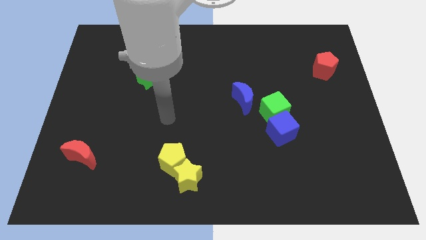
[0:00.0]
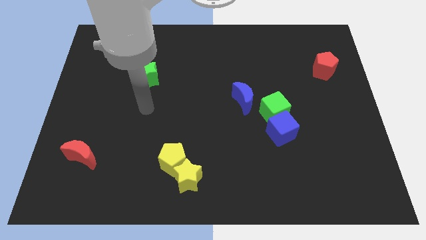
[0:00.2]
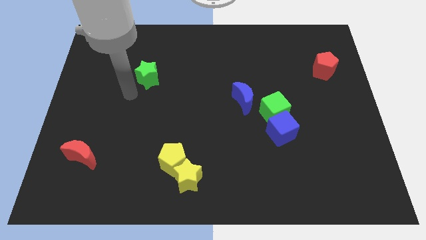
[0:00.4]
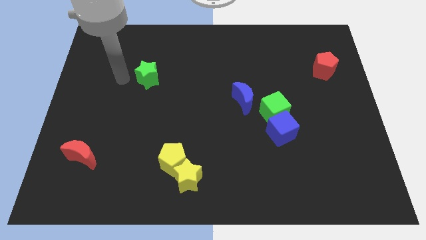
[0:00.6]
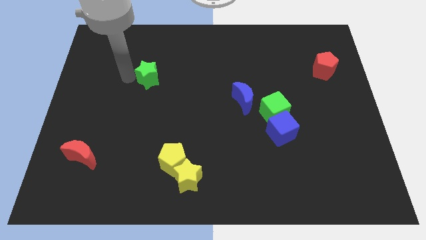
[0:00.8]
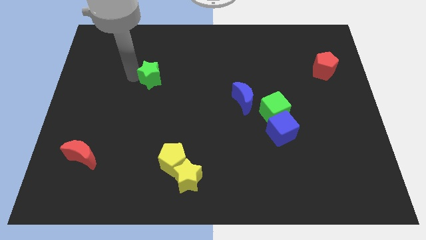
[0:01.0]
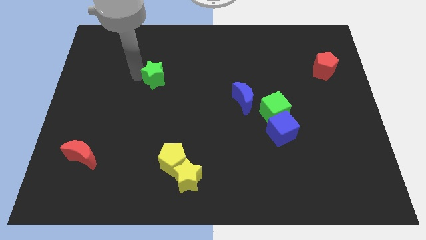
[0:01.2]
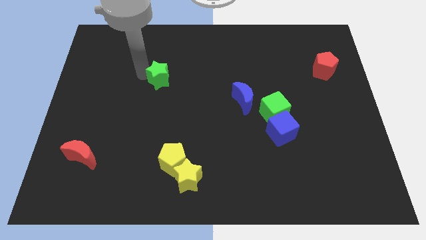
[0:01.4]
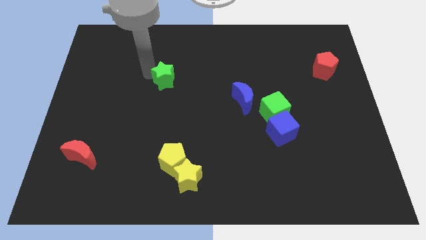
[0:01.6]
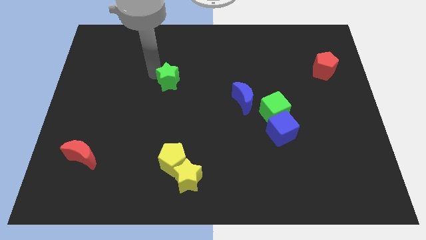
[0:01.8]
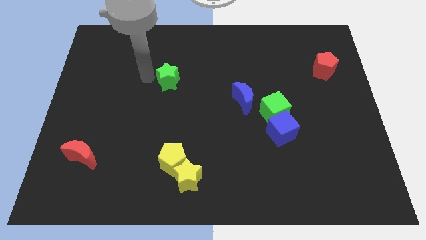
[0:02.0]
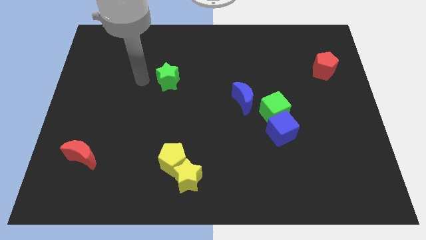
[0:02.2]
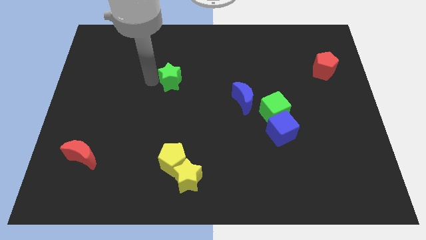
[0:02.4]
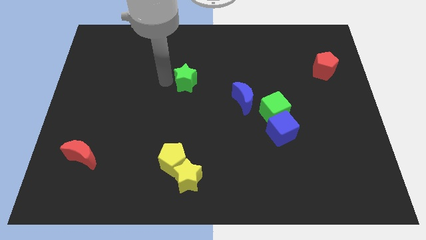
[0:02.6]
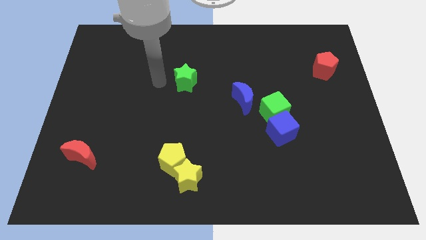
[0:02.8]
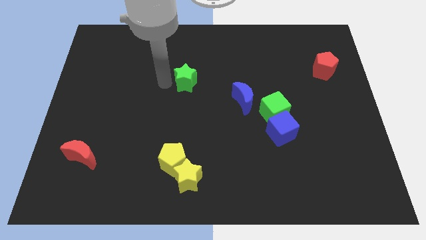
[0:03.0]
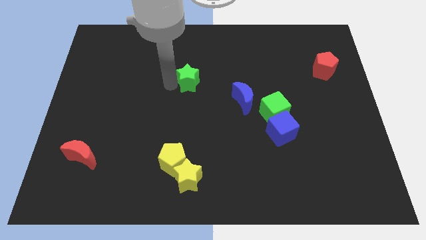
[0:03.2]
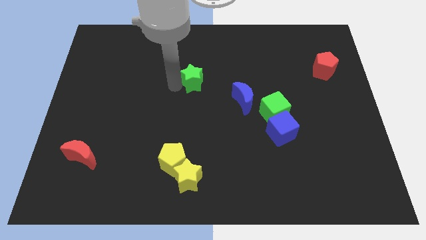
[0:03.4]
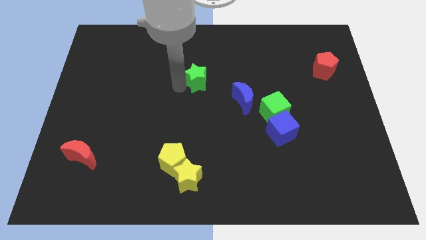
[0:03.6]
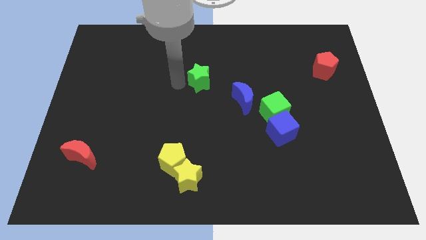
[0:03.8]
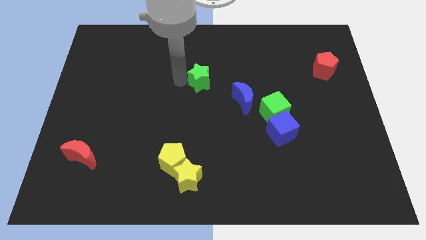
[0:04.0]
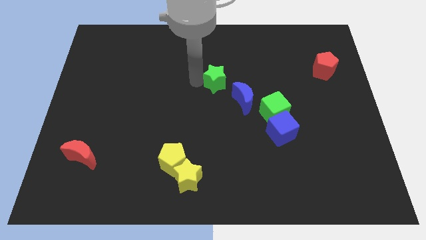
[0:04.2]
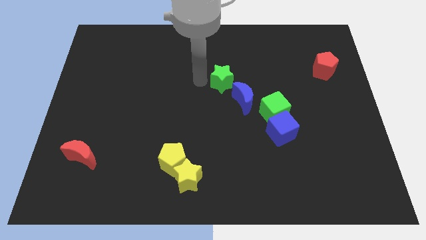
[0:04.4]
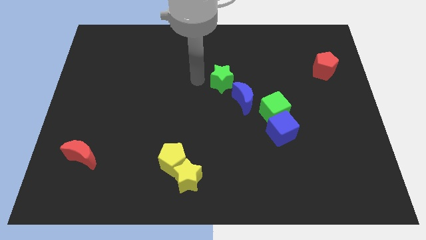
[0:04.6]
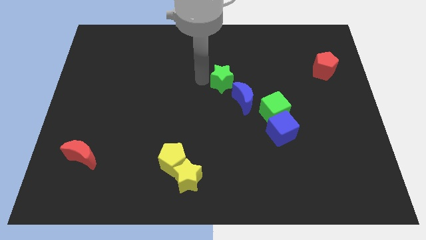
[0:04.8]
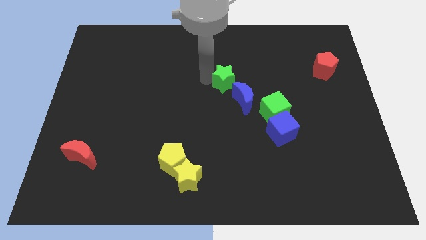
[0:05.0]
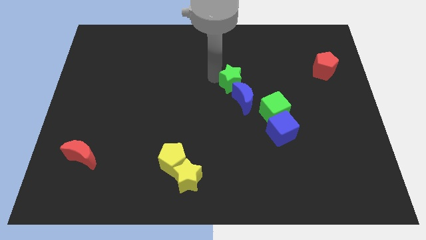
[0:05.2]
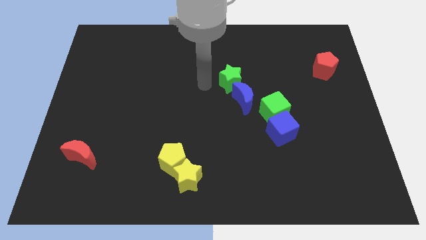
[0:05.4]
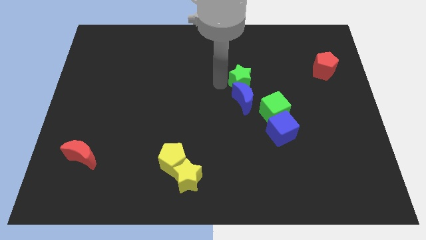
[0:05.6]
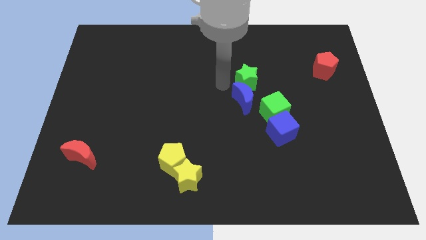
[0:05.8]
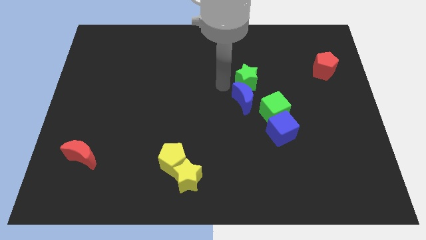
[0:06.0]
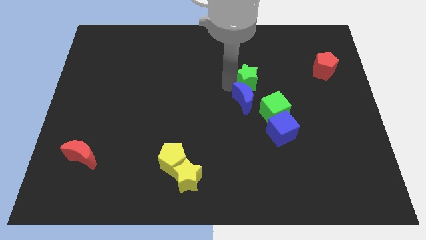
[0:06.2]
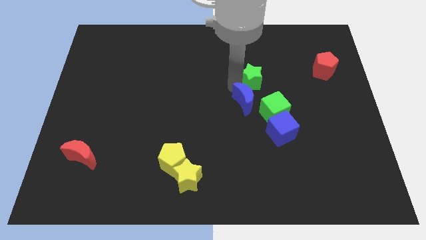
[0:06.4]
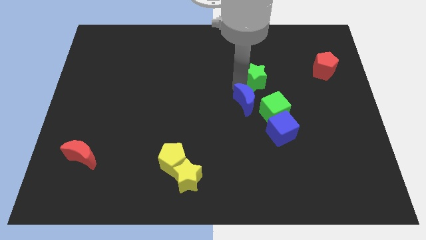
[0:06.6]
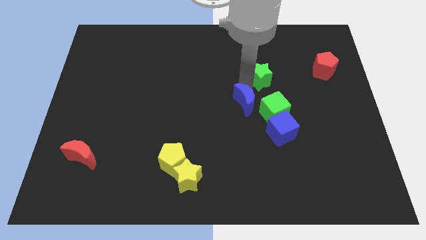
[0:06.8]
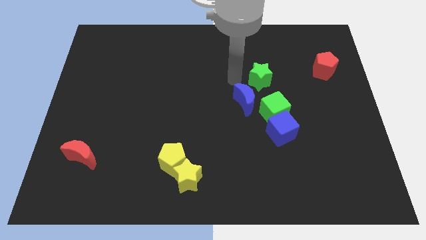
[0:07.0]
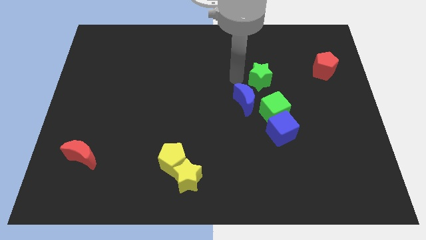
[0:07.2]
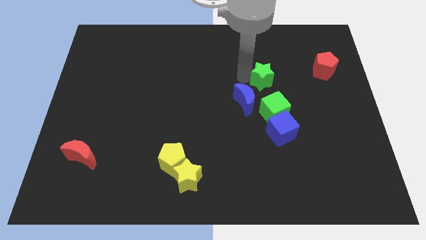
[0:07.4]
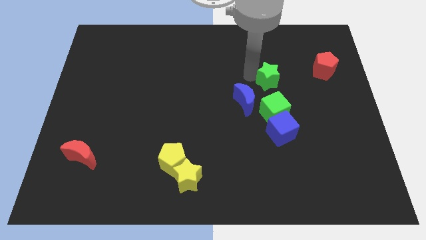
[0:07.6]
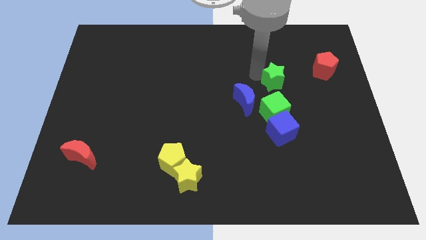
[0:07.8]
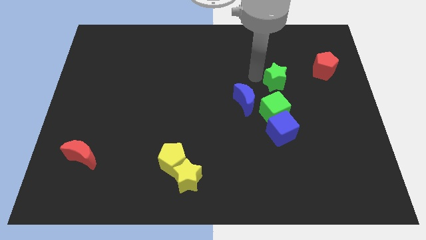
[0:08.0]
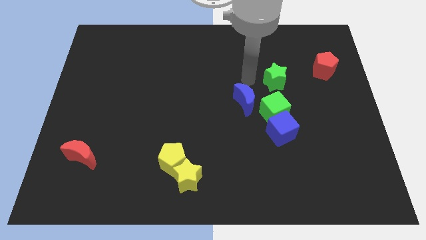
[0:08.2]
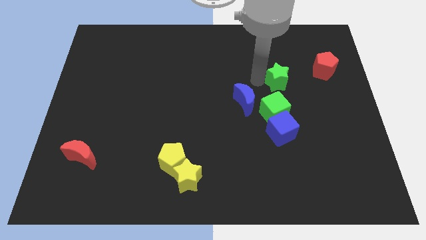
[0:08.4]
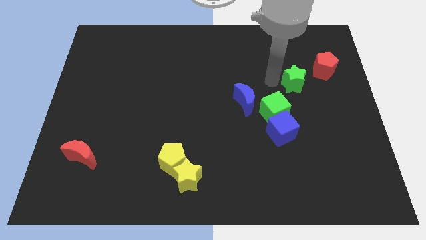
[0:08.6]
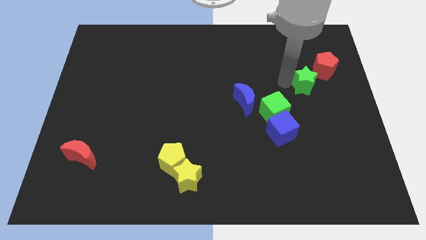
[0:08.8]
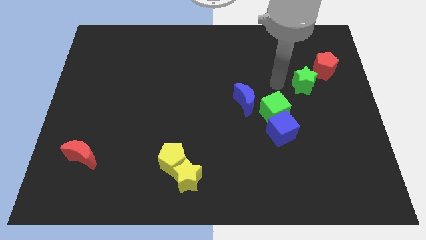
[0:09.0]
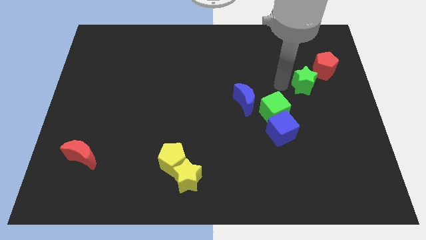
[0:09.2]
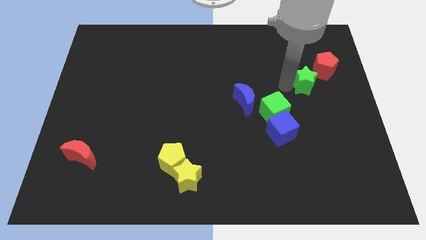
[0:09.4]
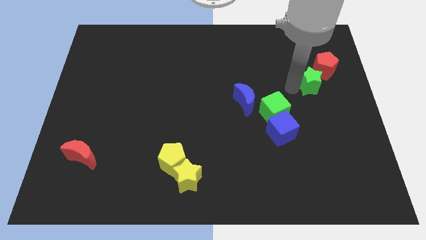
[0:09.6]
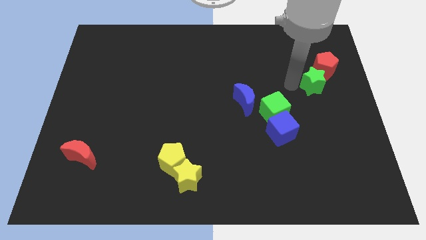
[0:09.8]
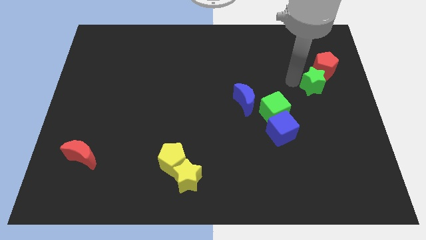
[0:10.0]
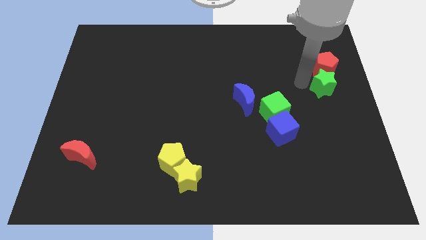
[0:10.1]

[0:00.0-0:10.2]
slide the green star to the center right
